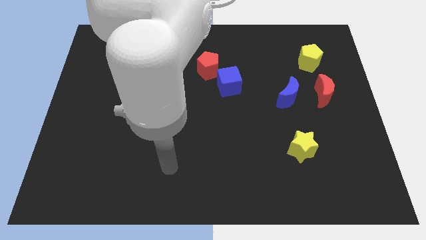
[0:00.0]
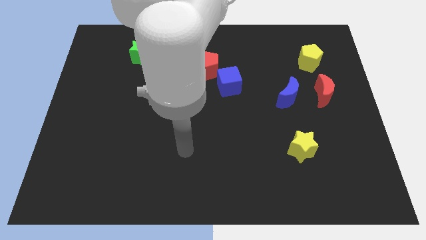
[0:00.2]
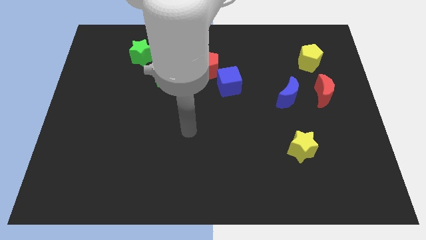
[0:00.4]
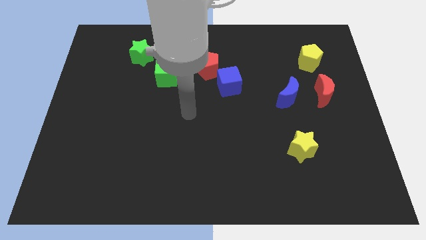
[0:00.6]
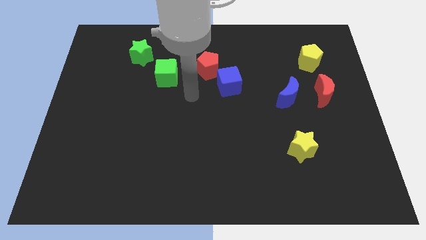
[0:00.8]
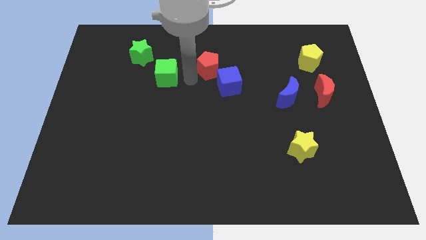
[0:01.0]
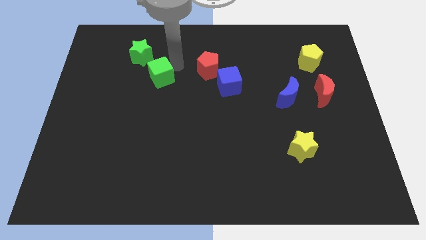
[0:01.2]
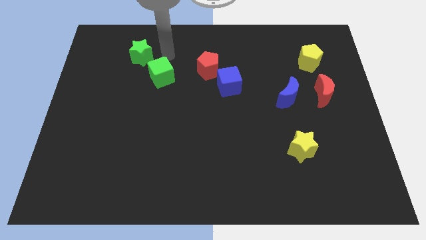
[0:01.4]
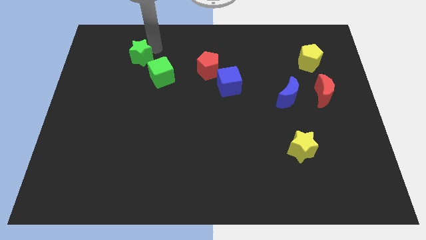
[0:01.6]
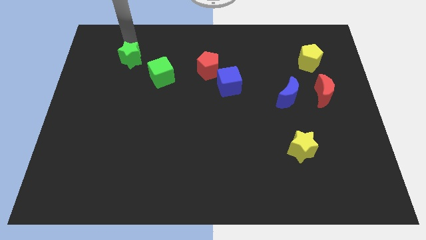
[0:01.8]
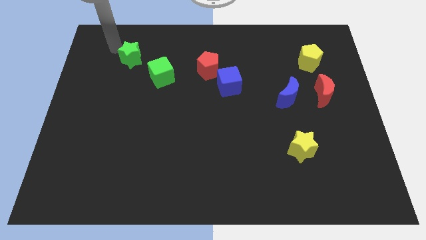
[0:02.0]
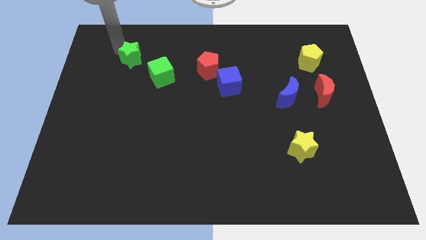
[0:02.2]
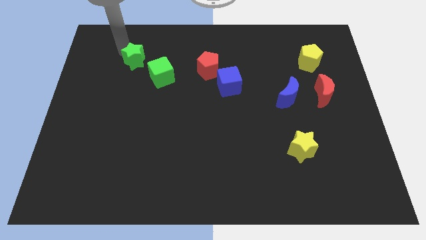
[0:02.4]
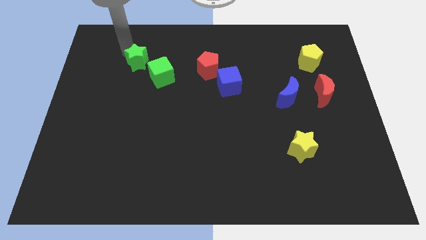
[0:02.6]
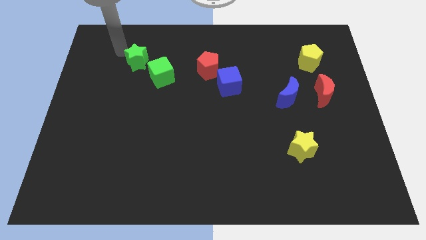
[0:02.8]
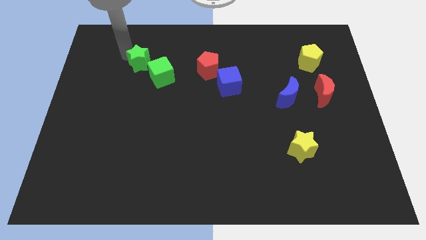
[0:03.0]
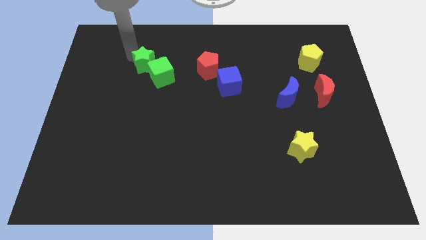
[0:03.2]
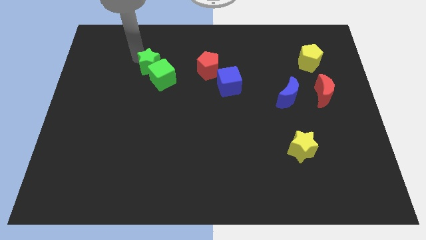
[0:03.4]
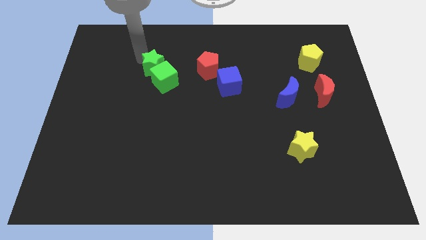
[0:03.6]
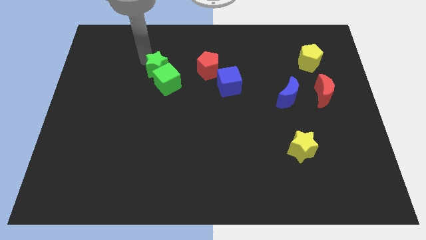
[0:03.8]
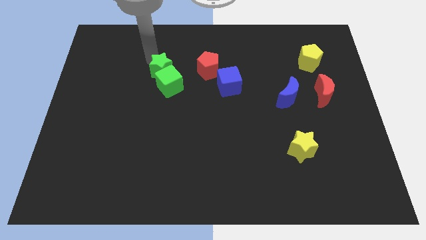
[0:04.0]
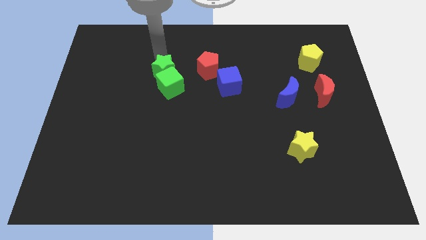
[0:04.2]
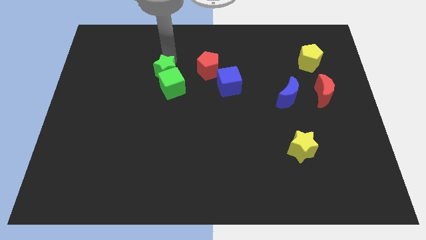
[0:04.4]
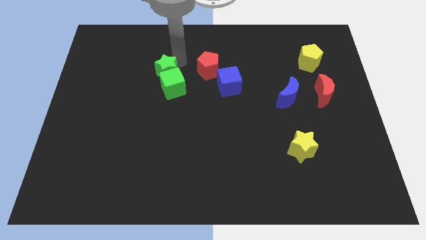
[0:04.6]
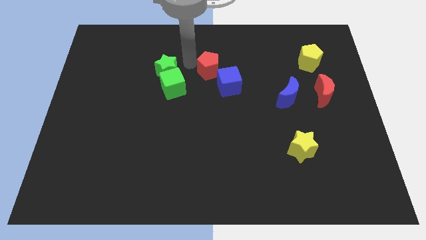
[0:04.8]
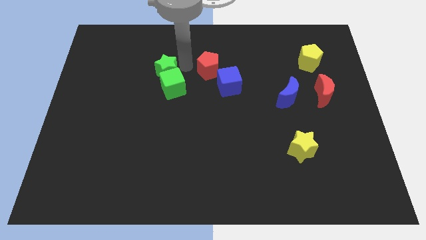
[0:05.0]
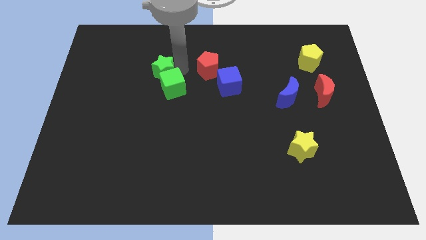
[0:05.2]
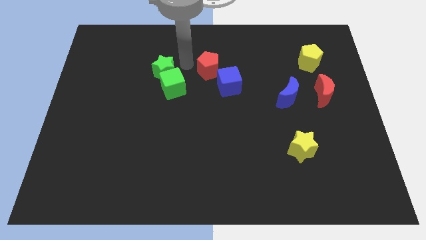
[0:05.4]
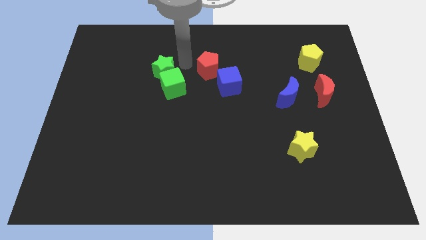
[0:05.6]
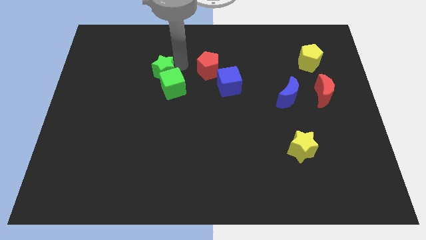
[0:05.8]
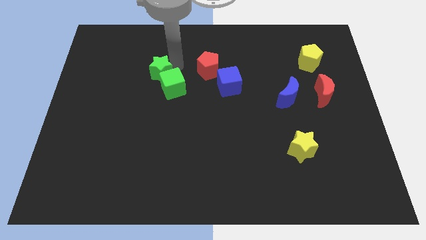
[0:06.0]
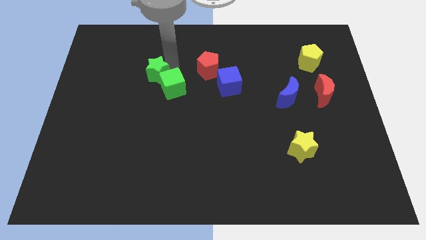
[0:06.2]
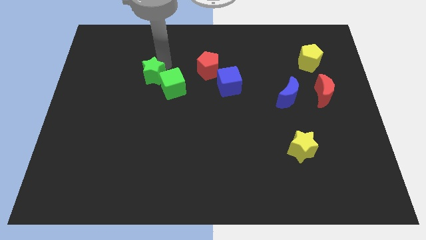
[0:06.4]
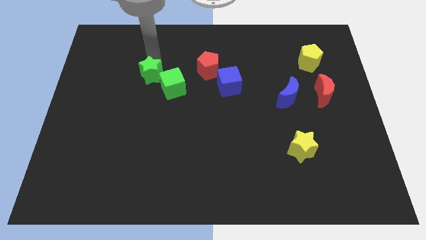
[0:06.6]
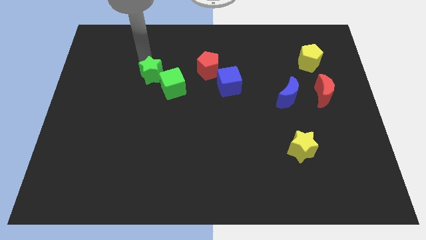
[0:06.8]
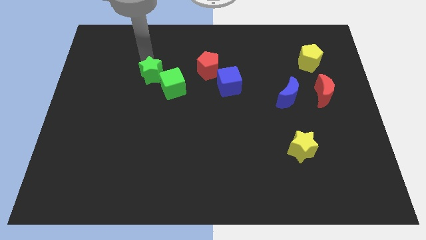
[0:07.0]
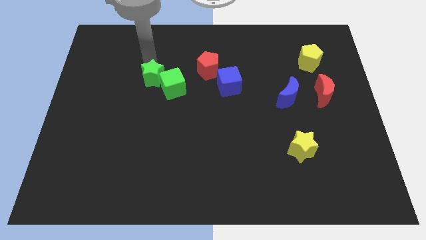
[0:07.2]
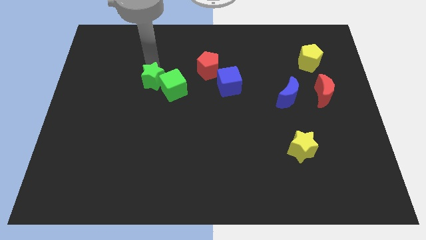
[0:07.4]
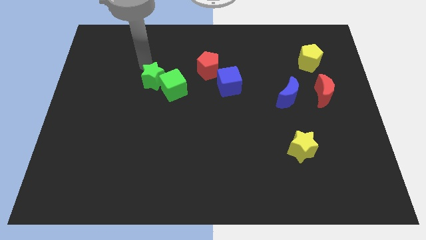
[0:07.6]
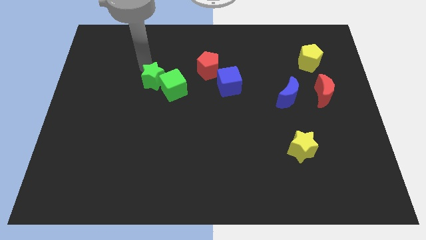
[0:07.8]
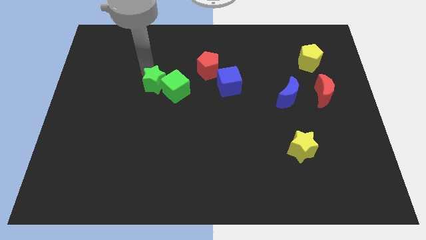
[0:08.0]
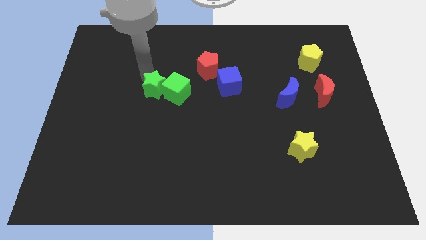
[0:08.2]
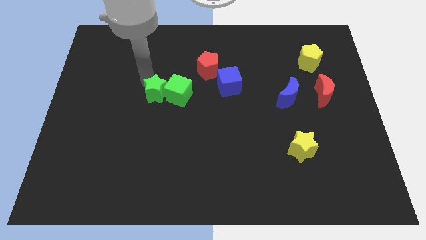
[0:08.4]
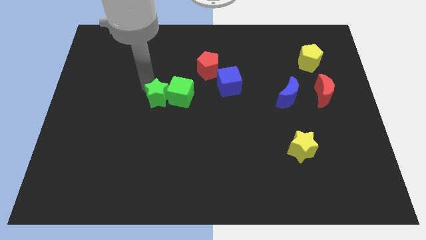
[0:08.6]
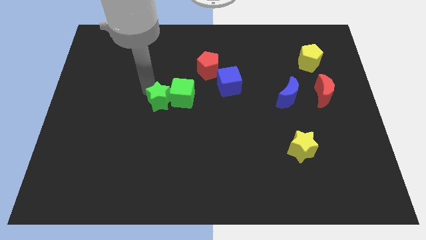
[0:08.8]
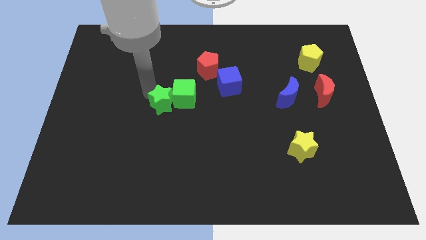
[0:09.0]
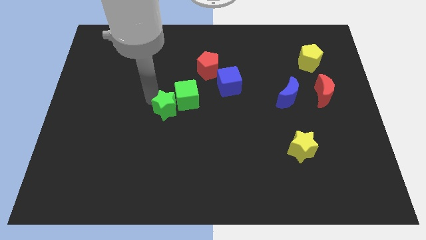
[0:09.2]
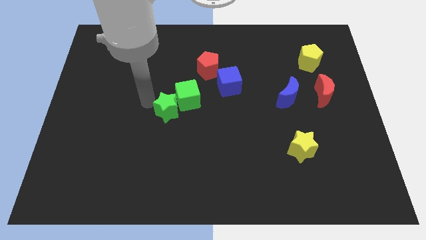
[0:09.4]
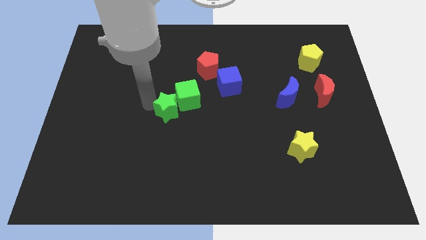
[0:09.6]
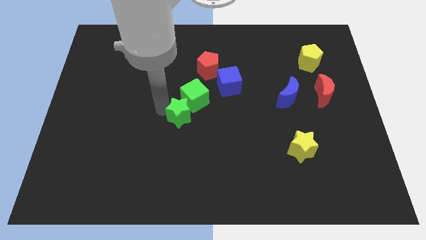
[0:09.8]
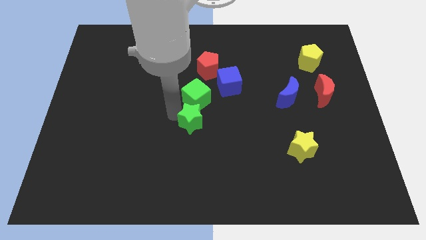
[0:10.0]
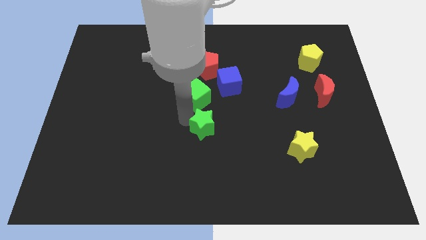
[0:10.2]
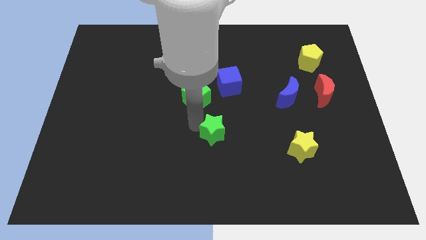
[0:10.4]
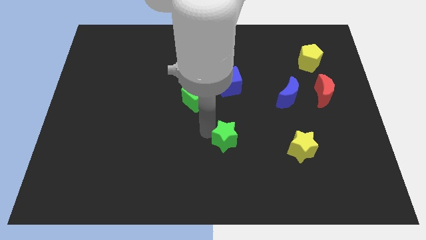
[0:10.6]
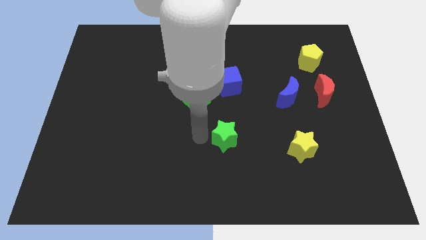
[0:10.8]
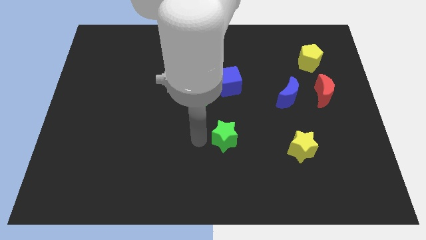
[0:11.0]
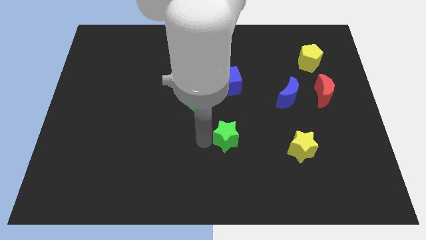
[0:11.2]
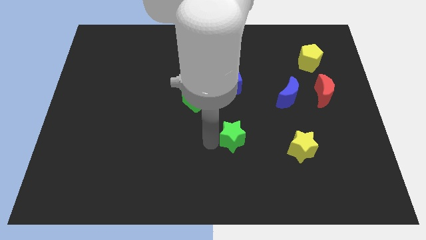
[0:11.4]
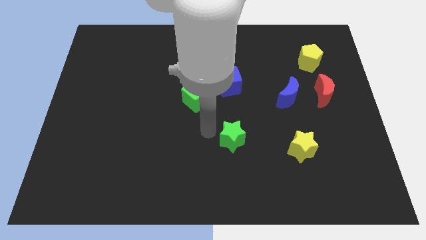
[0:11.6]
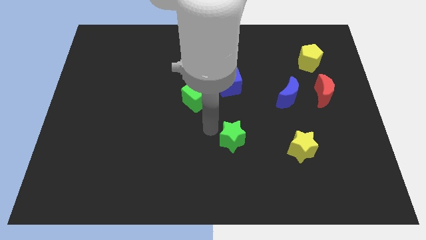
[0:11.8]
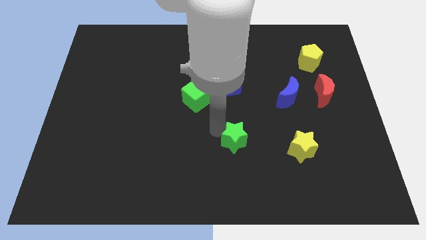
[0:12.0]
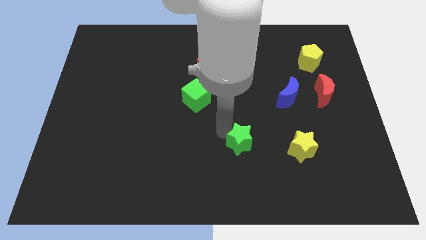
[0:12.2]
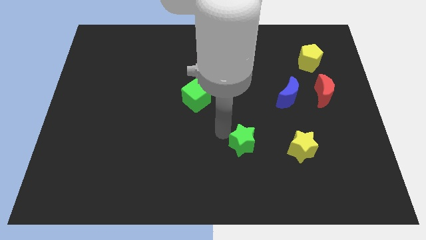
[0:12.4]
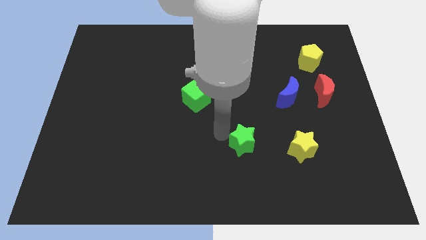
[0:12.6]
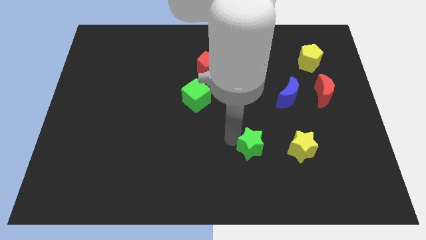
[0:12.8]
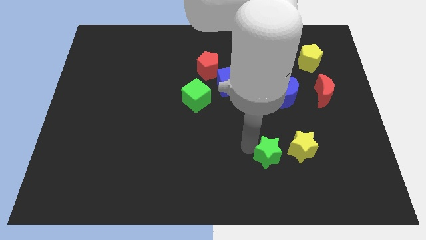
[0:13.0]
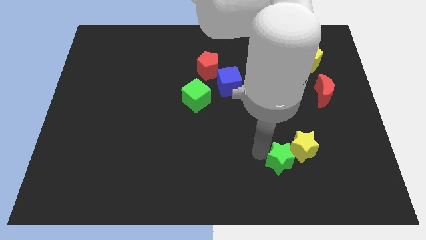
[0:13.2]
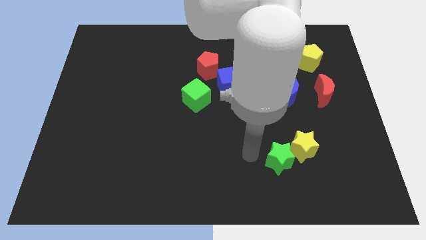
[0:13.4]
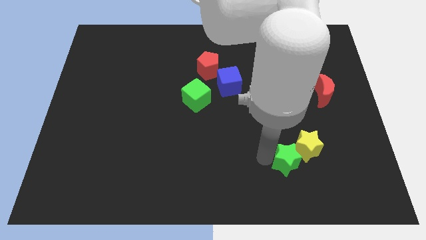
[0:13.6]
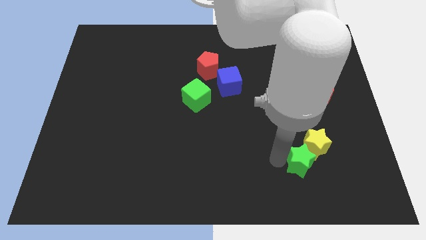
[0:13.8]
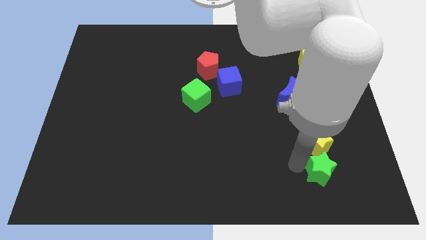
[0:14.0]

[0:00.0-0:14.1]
move the green star diagonally down and to the right of the yellow star

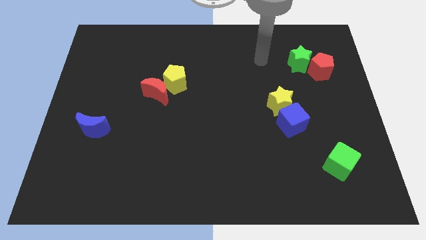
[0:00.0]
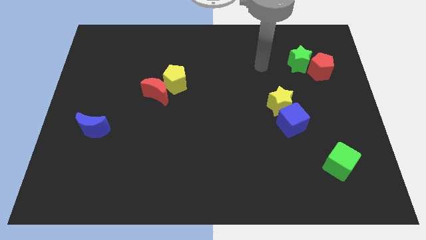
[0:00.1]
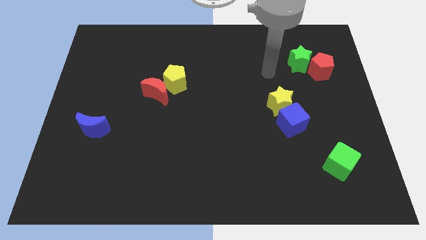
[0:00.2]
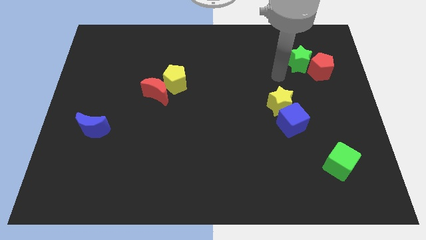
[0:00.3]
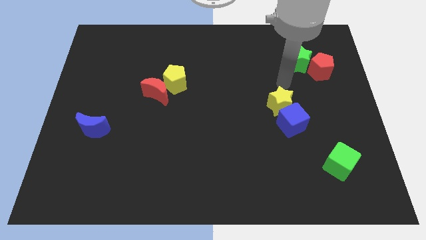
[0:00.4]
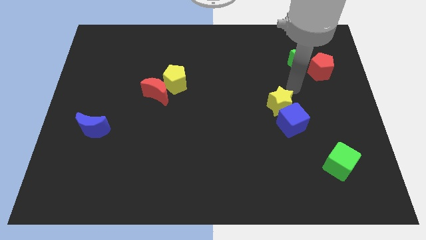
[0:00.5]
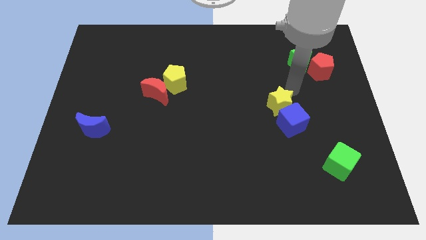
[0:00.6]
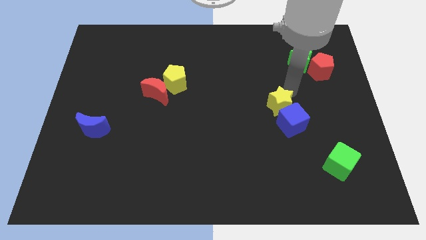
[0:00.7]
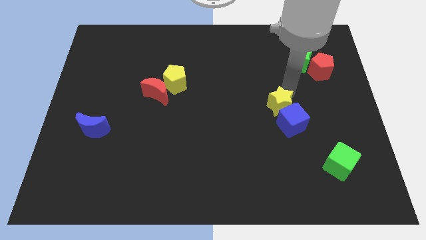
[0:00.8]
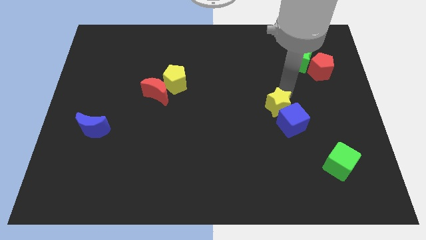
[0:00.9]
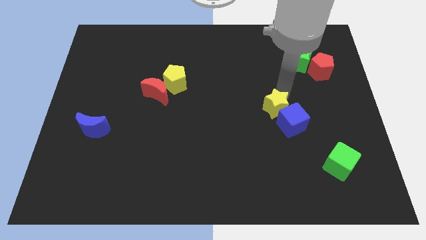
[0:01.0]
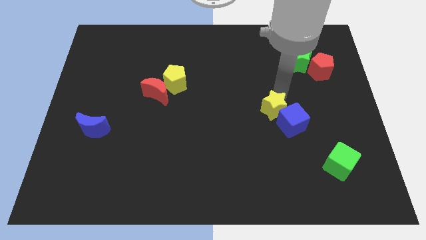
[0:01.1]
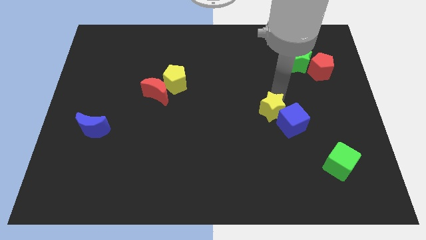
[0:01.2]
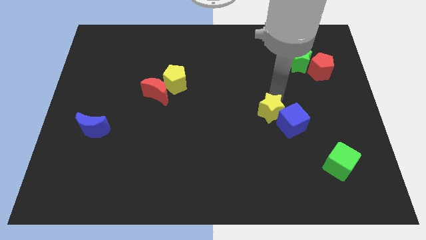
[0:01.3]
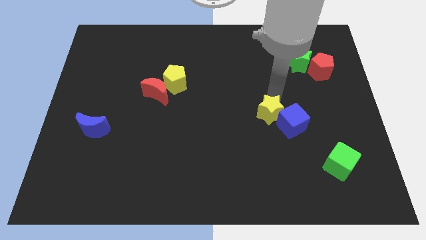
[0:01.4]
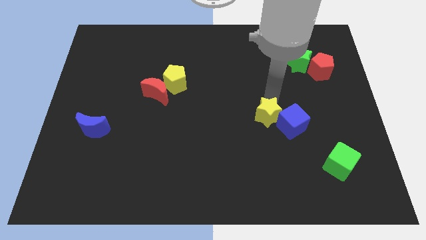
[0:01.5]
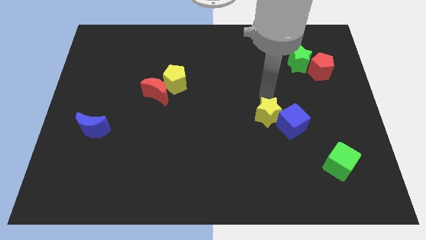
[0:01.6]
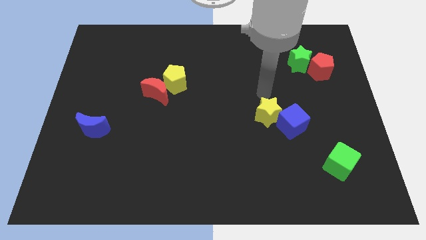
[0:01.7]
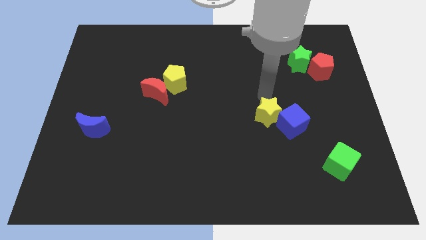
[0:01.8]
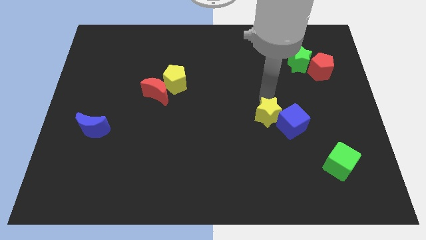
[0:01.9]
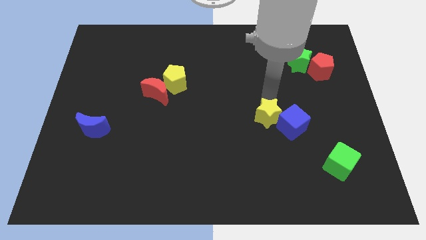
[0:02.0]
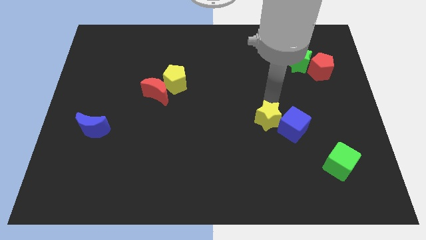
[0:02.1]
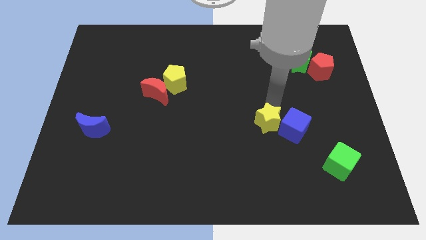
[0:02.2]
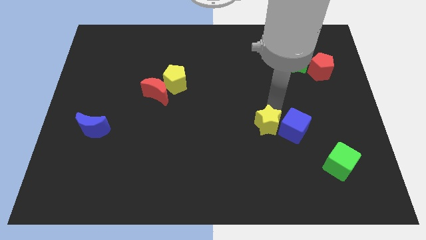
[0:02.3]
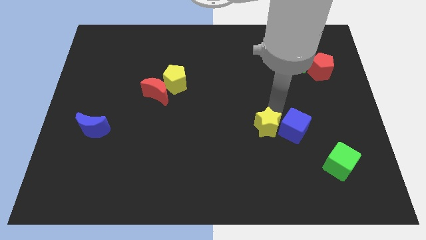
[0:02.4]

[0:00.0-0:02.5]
push the yellow star to the bottom left of the blue cube
